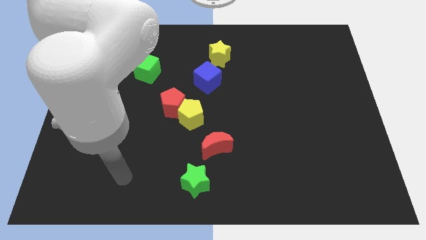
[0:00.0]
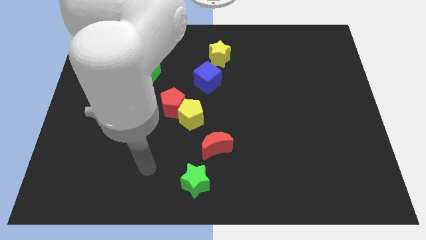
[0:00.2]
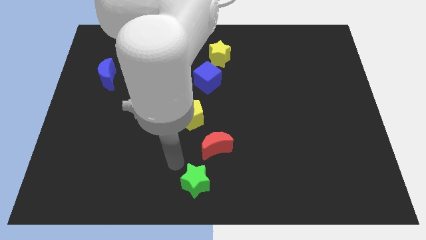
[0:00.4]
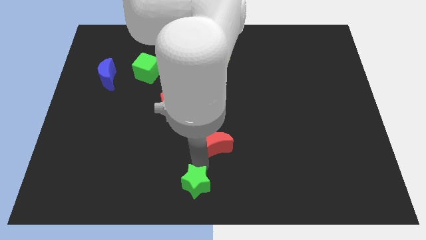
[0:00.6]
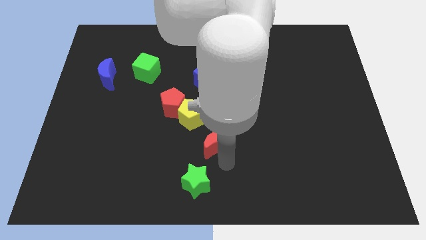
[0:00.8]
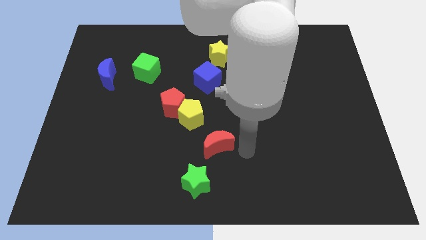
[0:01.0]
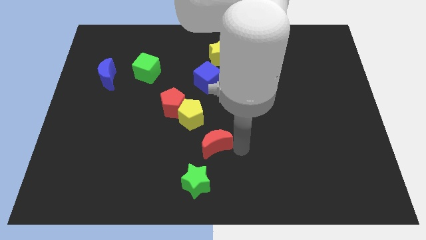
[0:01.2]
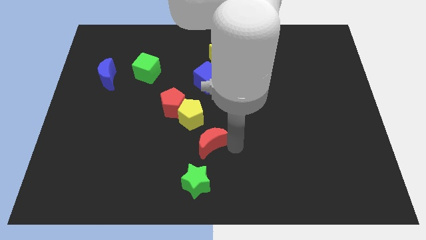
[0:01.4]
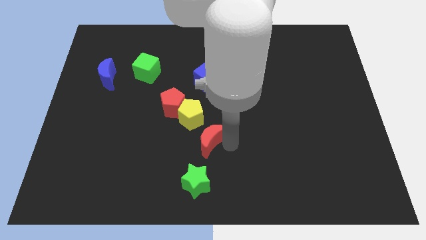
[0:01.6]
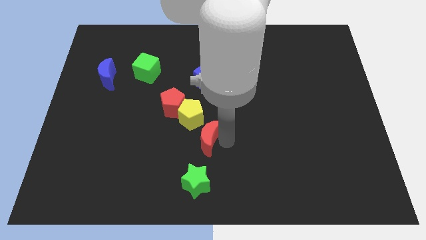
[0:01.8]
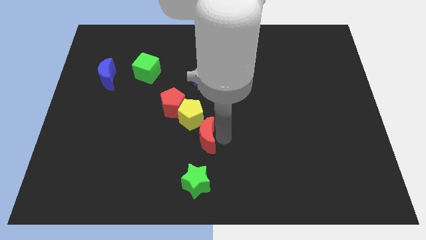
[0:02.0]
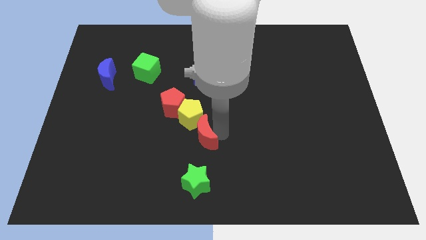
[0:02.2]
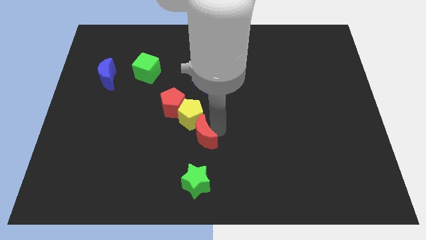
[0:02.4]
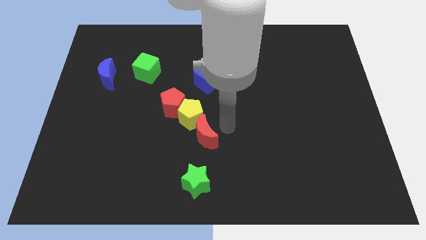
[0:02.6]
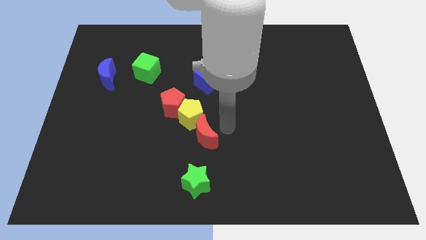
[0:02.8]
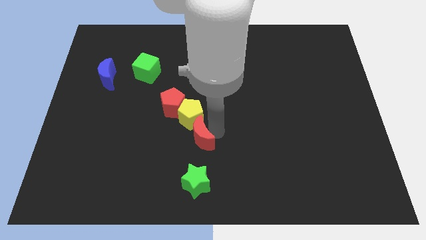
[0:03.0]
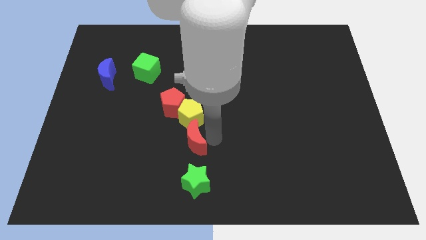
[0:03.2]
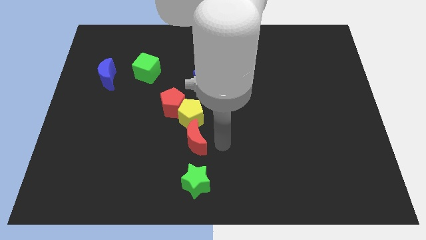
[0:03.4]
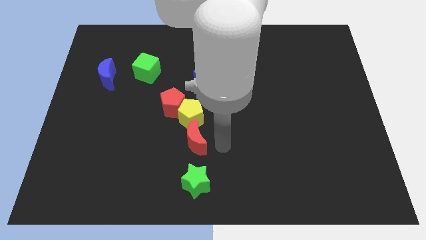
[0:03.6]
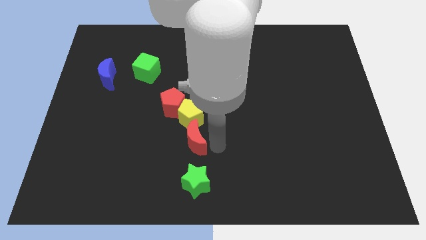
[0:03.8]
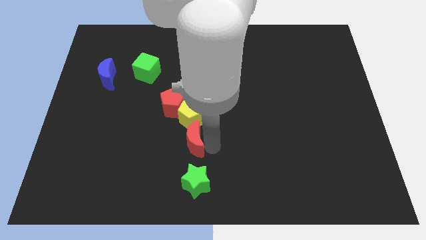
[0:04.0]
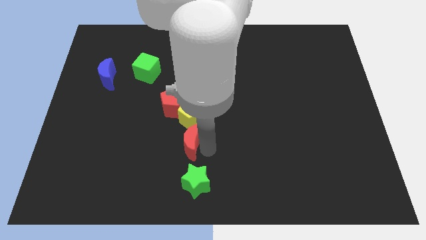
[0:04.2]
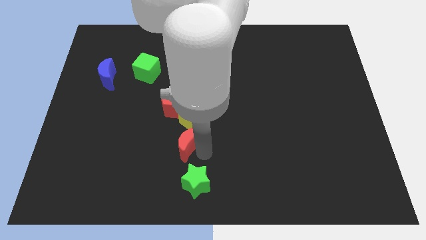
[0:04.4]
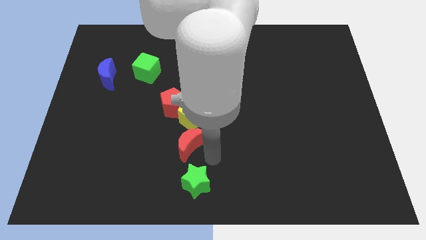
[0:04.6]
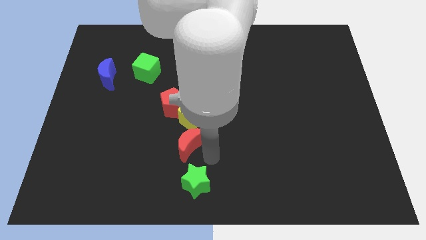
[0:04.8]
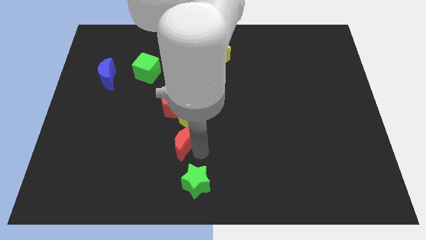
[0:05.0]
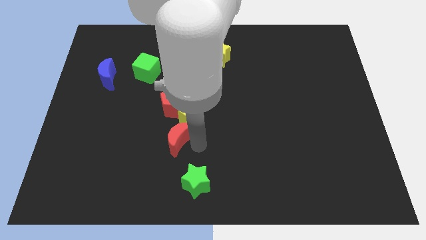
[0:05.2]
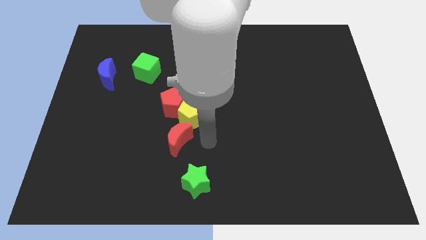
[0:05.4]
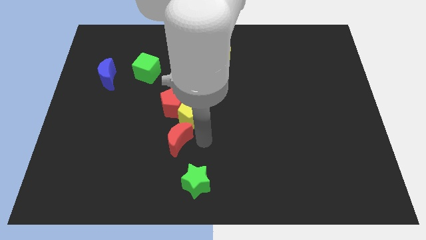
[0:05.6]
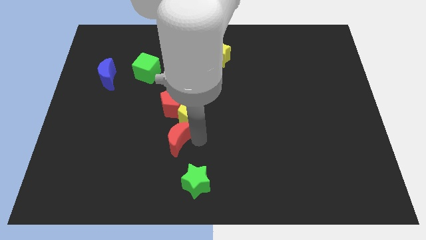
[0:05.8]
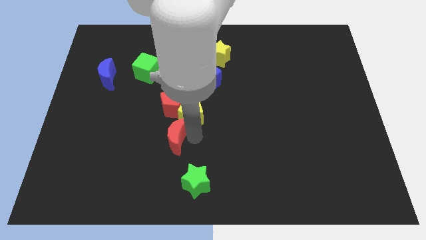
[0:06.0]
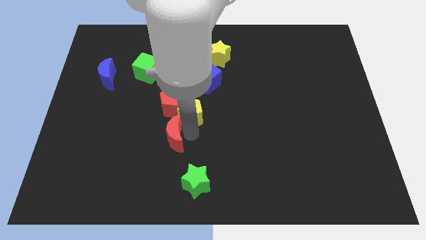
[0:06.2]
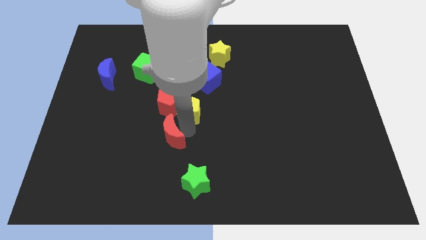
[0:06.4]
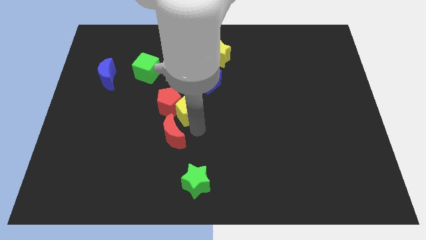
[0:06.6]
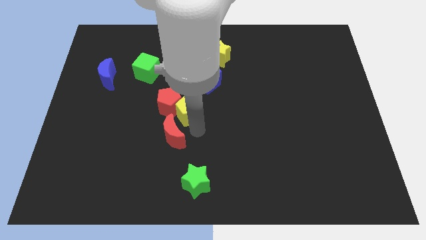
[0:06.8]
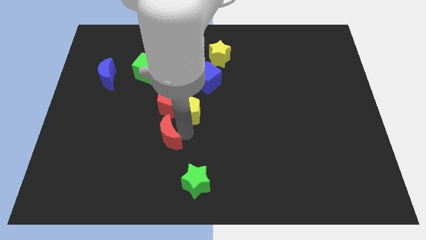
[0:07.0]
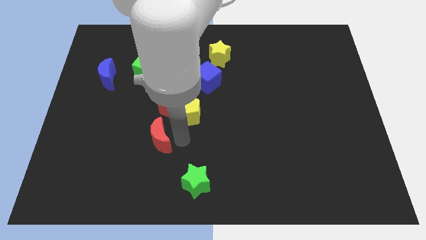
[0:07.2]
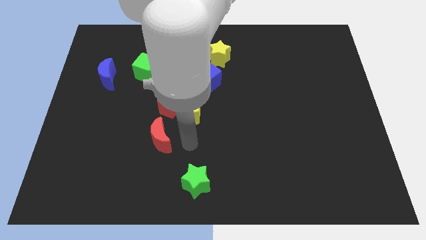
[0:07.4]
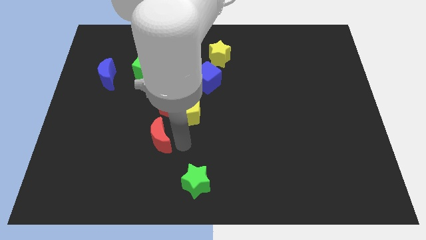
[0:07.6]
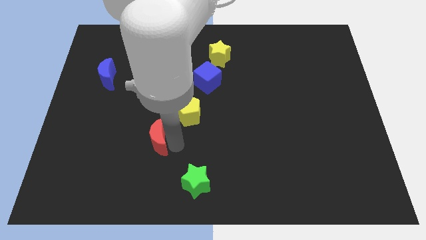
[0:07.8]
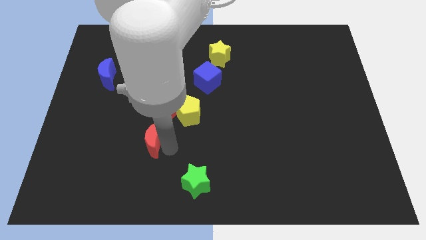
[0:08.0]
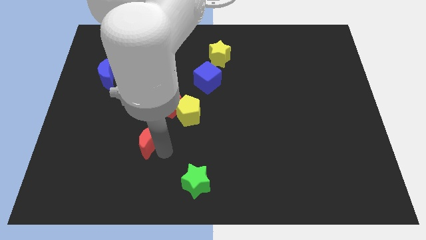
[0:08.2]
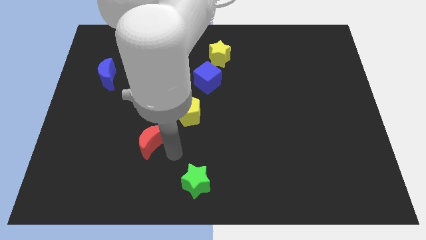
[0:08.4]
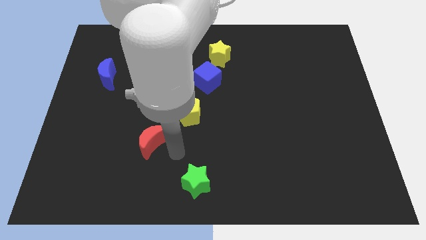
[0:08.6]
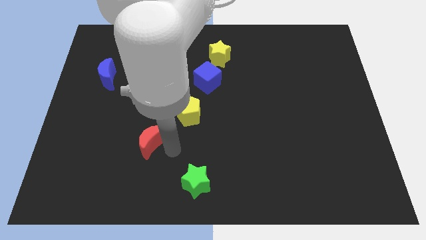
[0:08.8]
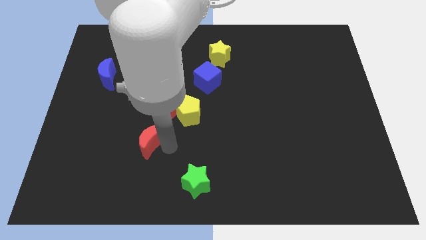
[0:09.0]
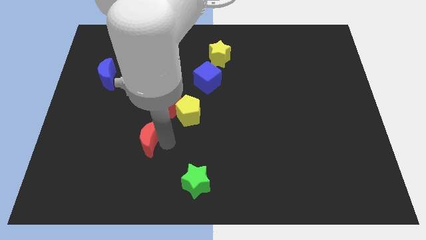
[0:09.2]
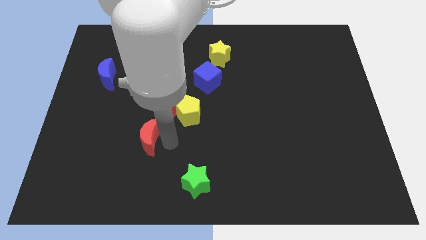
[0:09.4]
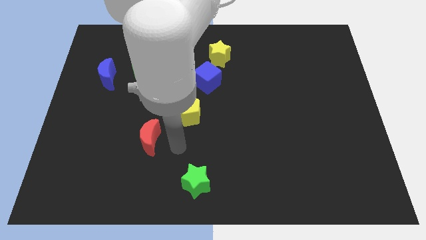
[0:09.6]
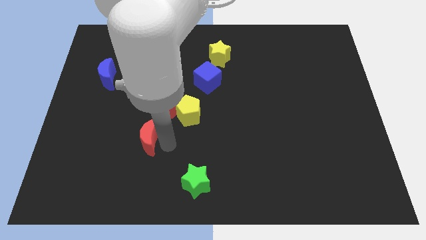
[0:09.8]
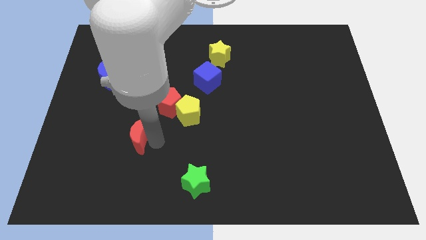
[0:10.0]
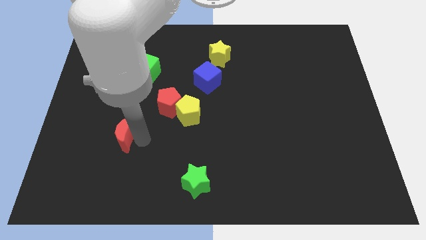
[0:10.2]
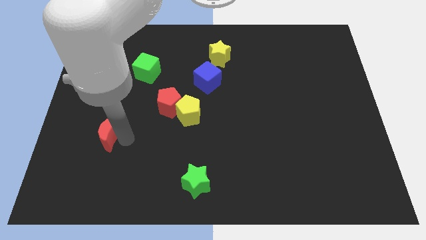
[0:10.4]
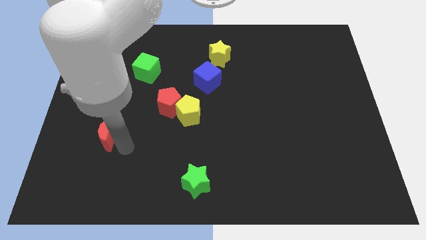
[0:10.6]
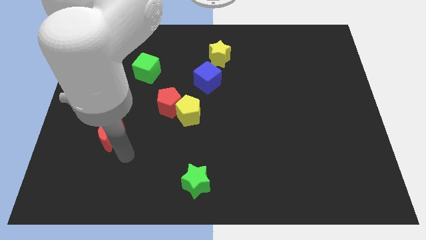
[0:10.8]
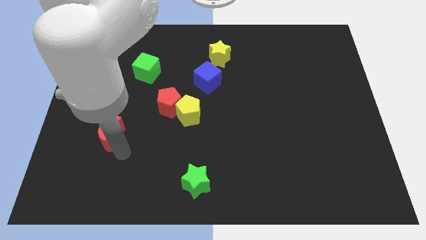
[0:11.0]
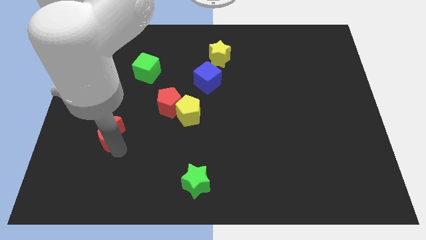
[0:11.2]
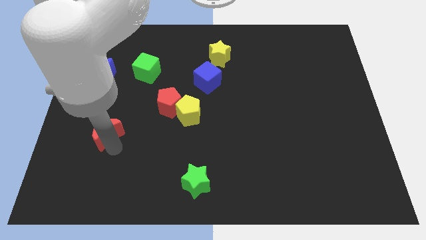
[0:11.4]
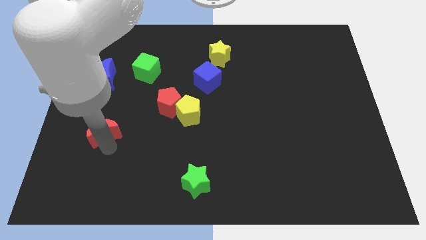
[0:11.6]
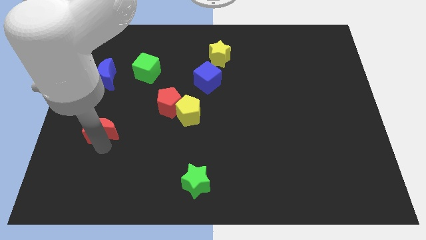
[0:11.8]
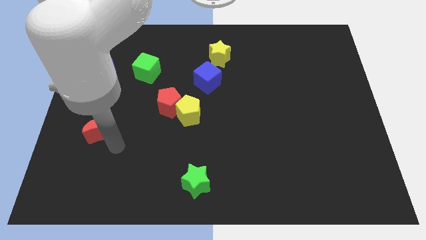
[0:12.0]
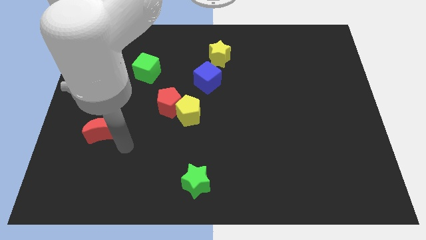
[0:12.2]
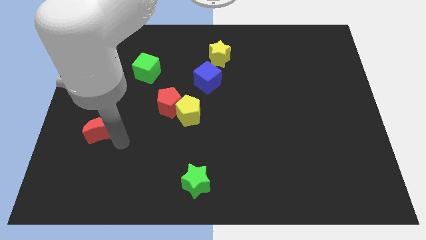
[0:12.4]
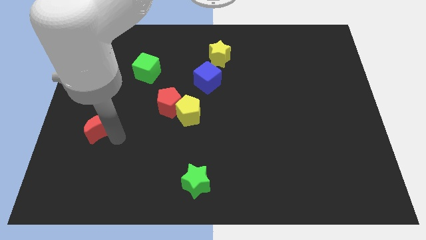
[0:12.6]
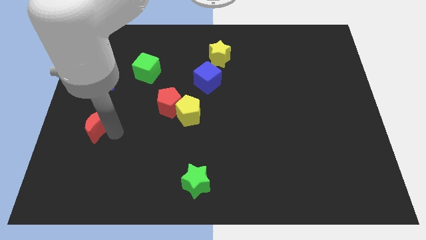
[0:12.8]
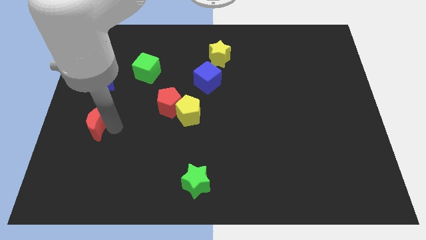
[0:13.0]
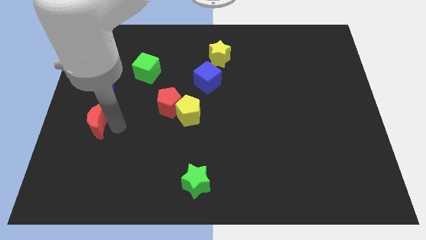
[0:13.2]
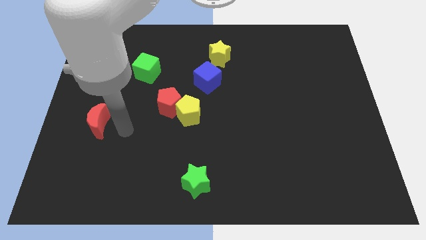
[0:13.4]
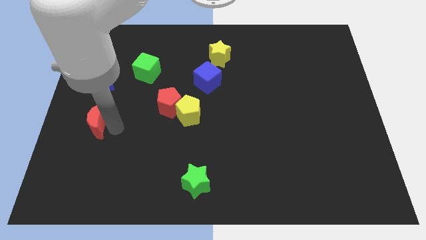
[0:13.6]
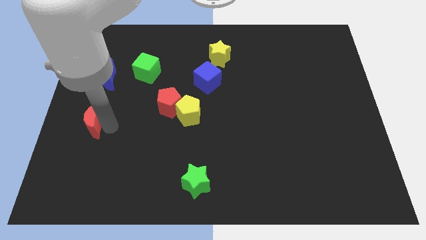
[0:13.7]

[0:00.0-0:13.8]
slide the red moon to the left side of the board

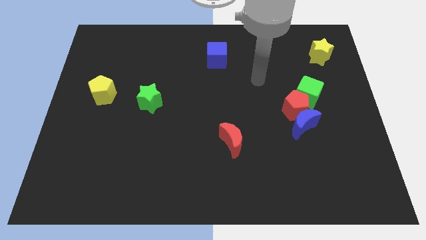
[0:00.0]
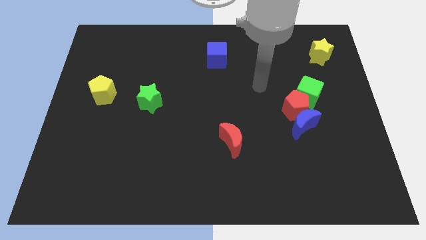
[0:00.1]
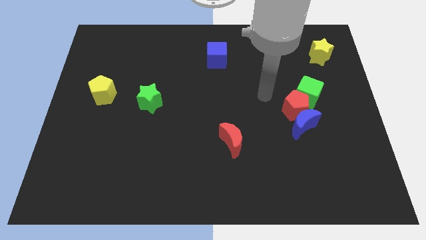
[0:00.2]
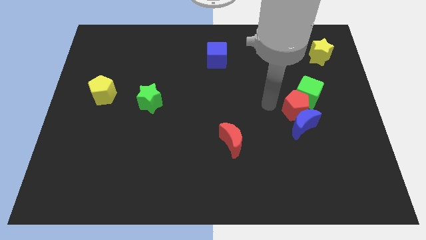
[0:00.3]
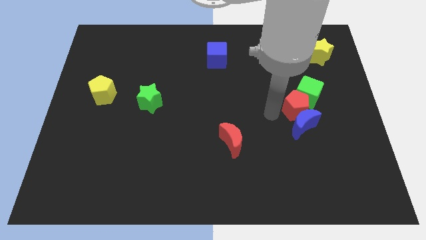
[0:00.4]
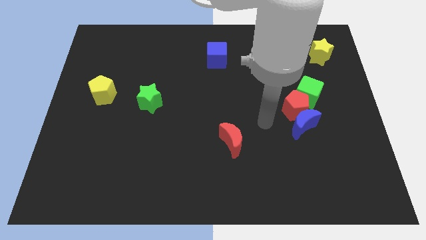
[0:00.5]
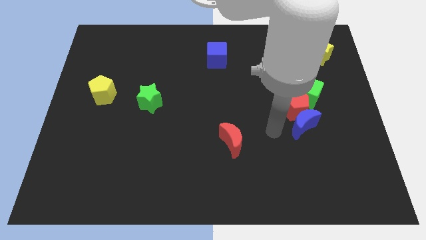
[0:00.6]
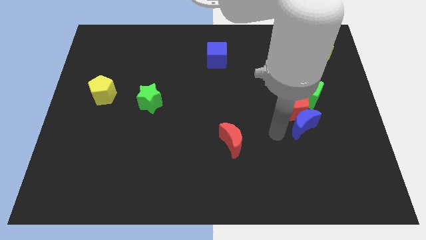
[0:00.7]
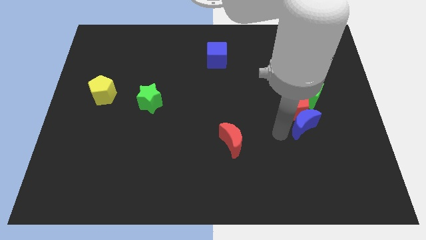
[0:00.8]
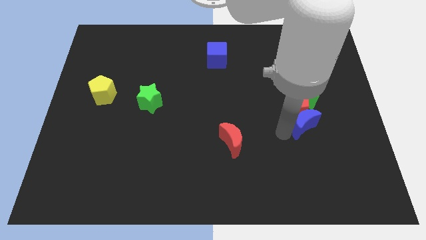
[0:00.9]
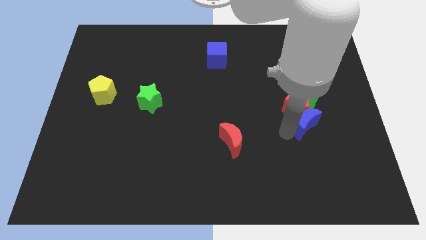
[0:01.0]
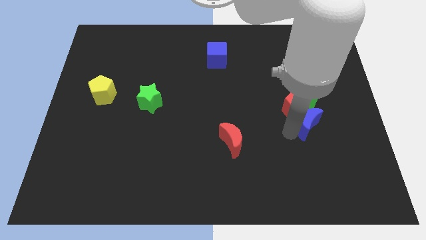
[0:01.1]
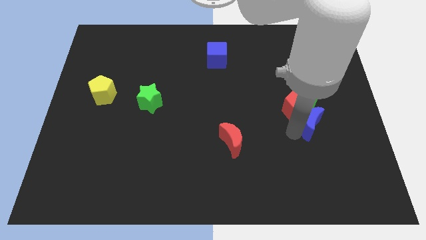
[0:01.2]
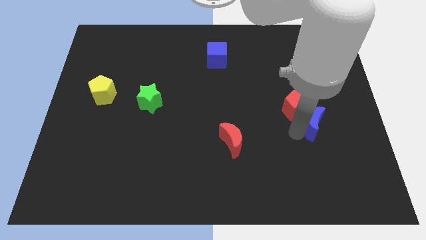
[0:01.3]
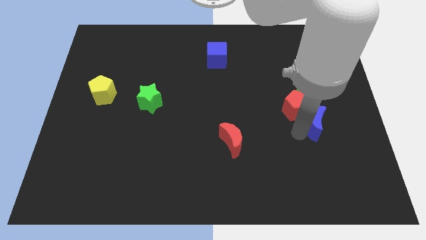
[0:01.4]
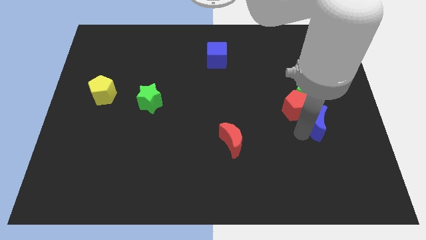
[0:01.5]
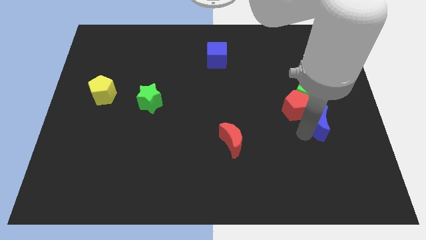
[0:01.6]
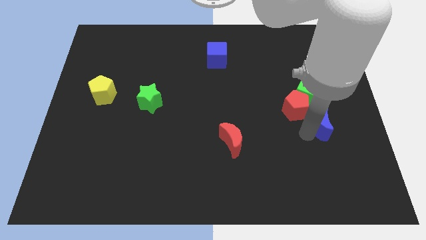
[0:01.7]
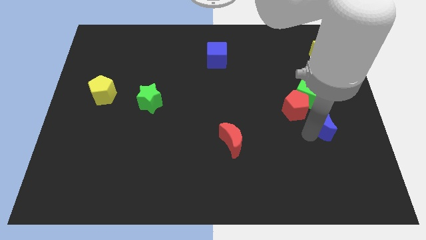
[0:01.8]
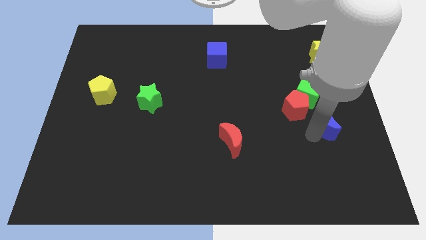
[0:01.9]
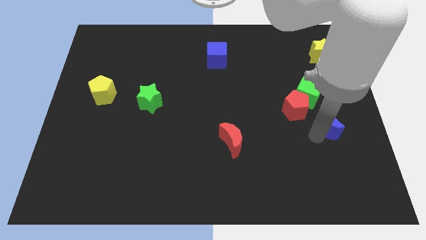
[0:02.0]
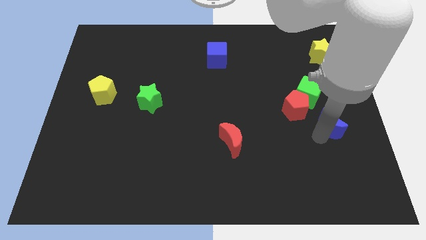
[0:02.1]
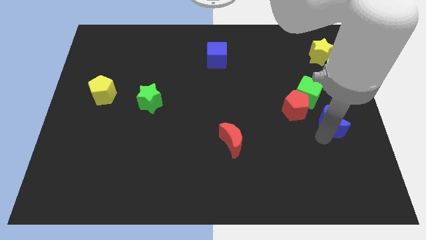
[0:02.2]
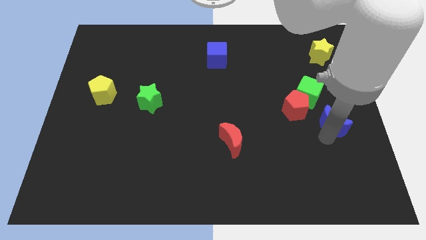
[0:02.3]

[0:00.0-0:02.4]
push the blue moon to the center right
